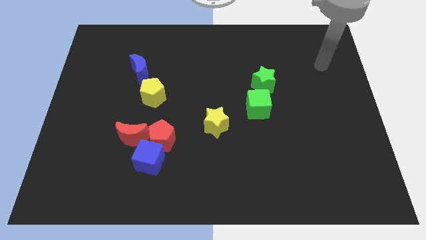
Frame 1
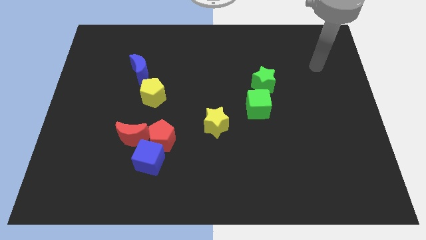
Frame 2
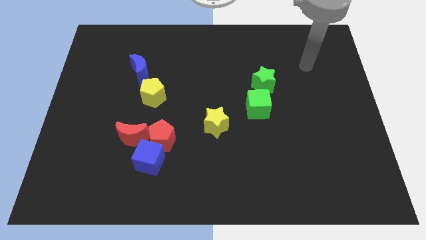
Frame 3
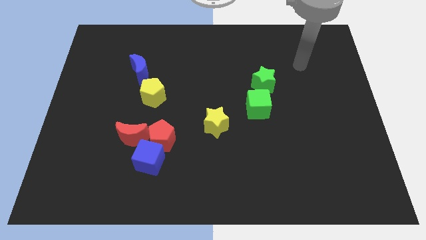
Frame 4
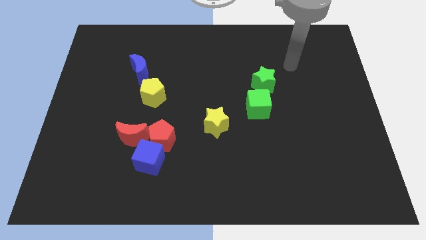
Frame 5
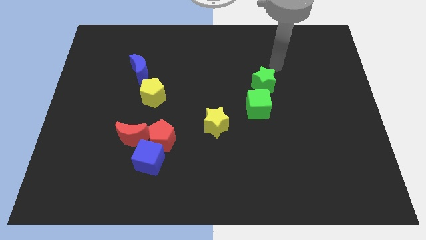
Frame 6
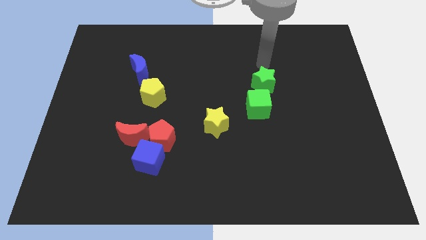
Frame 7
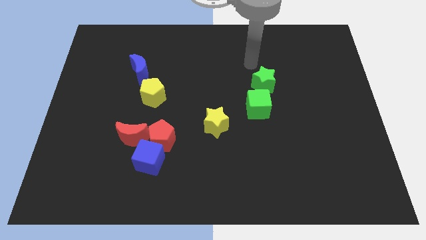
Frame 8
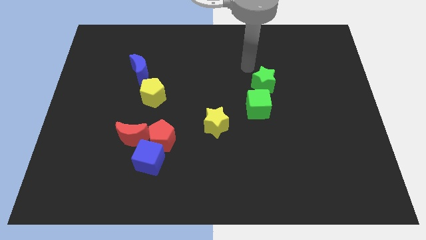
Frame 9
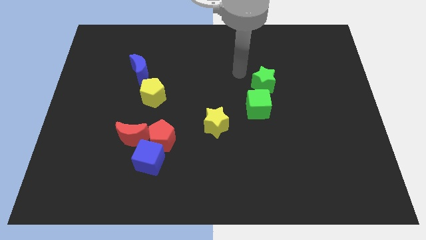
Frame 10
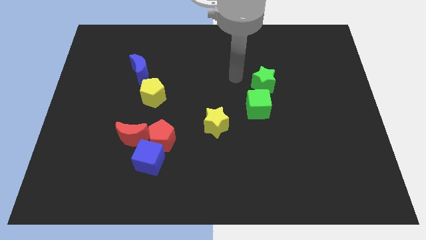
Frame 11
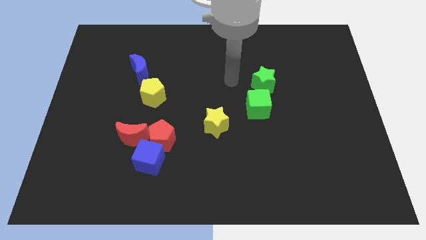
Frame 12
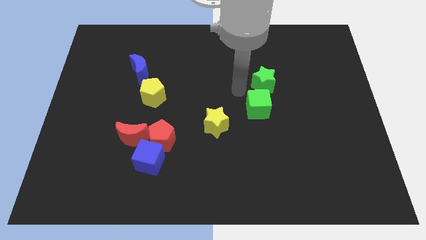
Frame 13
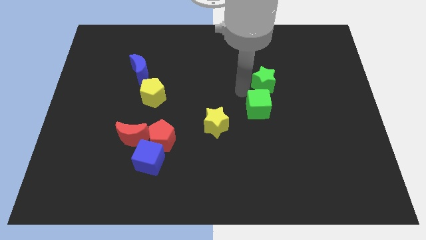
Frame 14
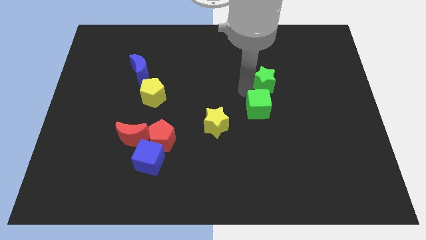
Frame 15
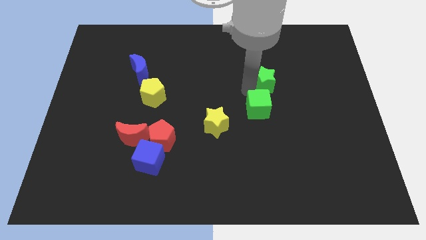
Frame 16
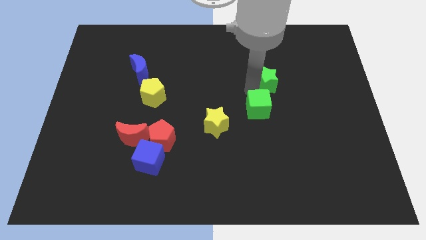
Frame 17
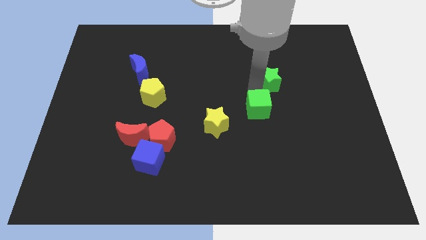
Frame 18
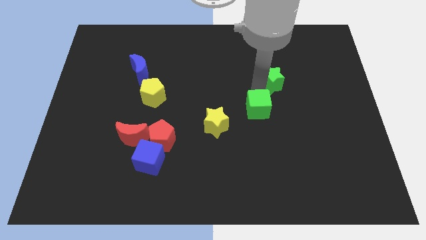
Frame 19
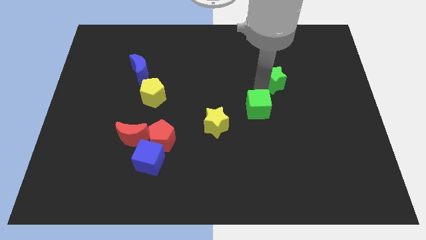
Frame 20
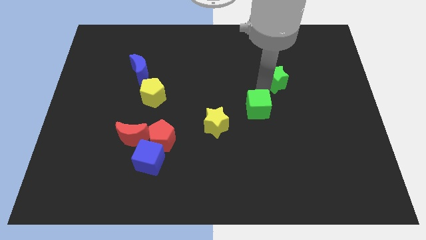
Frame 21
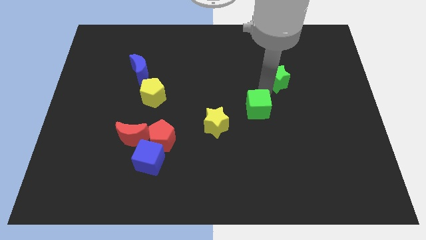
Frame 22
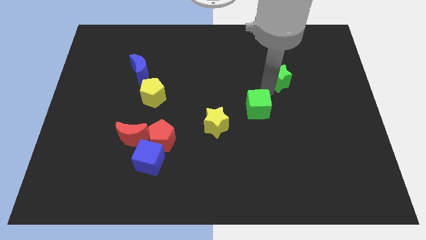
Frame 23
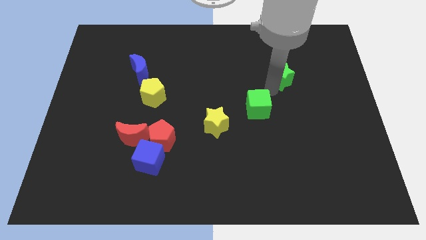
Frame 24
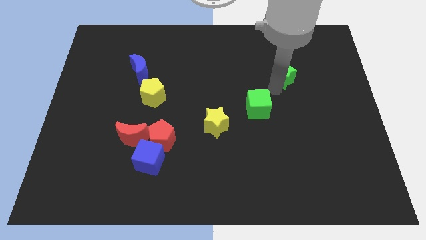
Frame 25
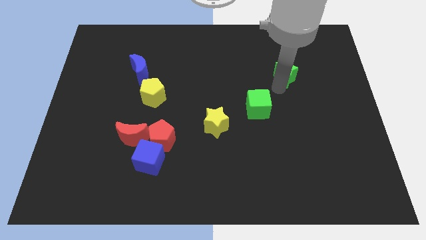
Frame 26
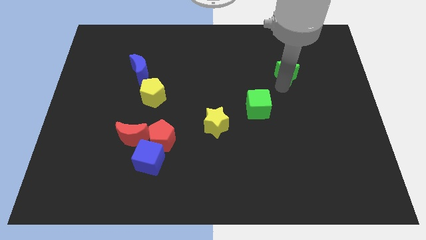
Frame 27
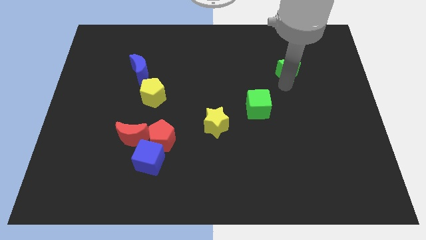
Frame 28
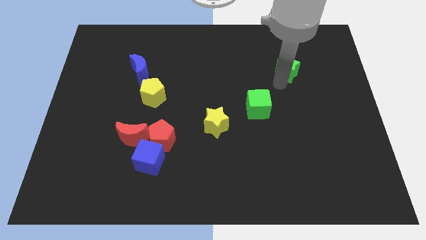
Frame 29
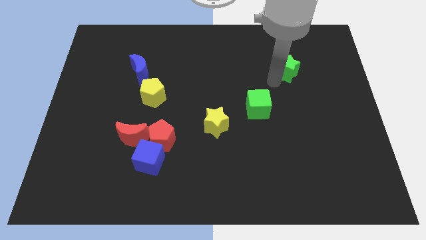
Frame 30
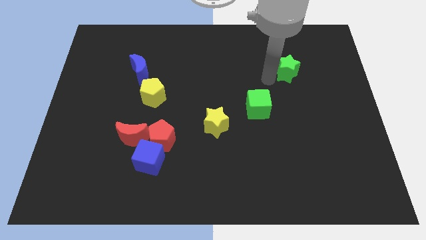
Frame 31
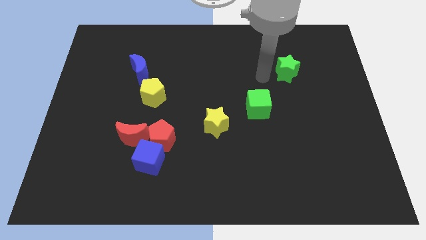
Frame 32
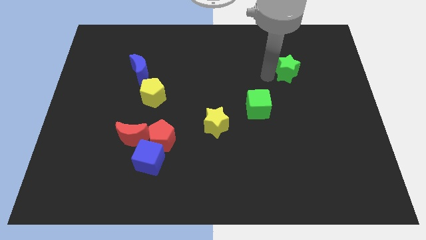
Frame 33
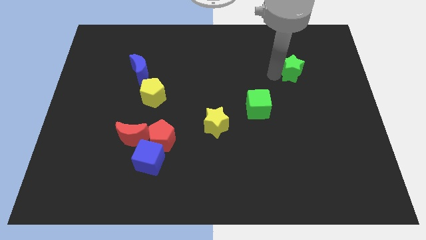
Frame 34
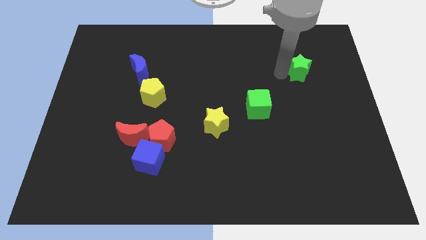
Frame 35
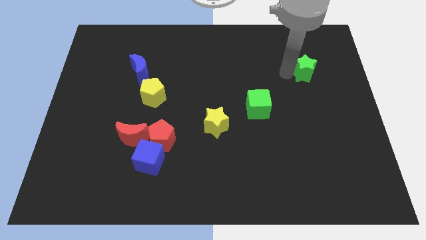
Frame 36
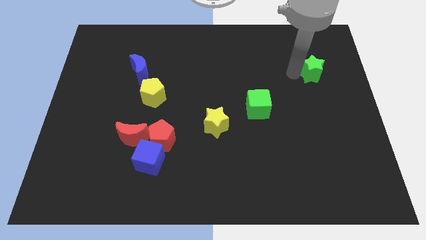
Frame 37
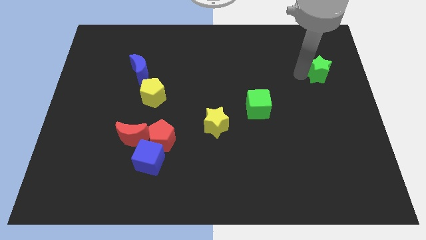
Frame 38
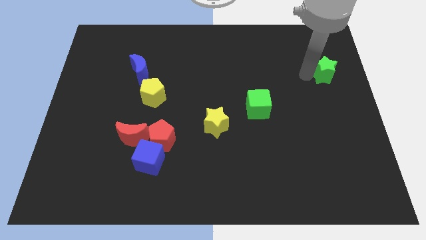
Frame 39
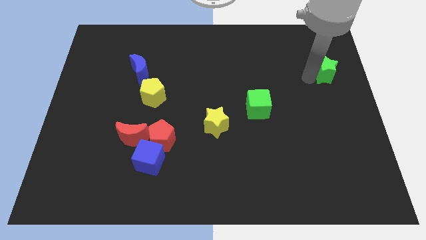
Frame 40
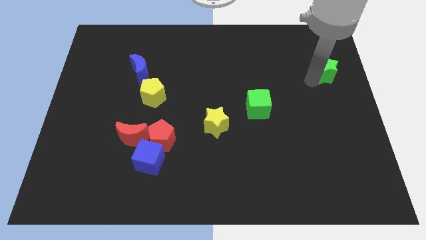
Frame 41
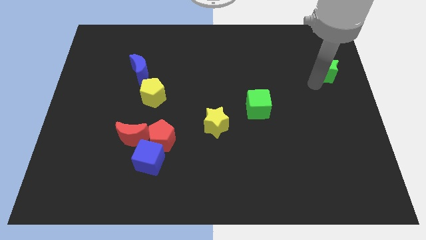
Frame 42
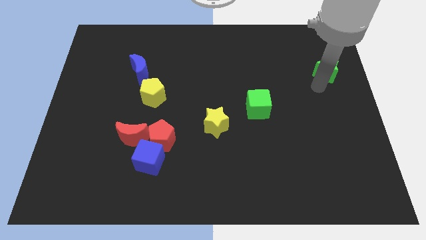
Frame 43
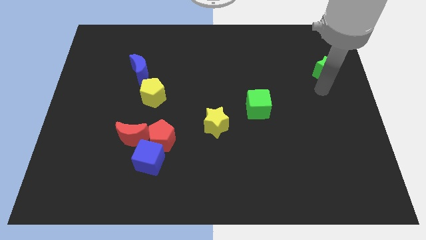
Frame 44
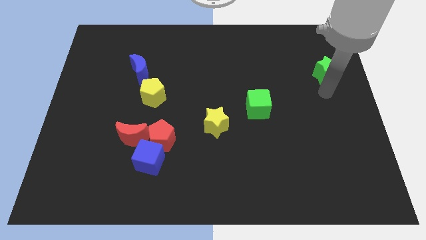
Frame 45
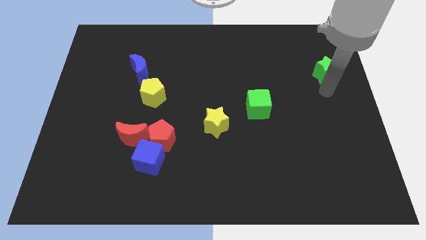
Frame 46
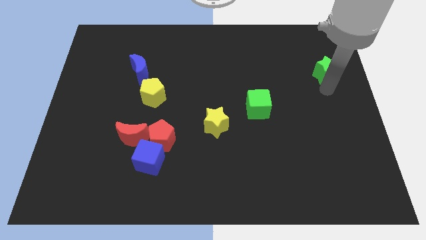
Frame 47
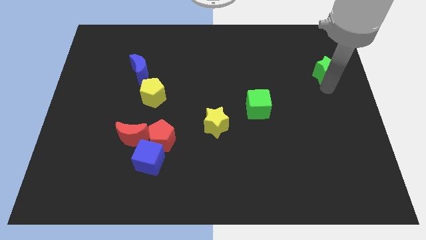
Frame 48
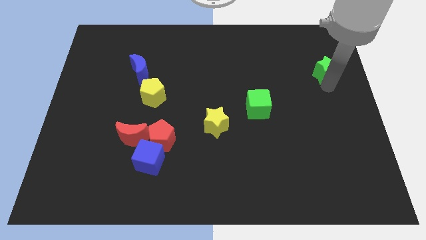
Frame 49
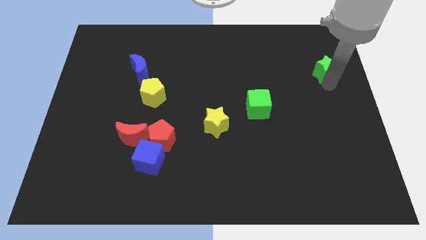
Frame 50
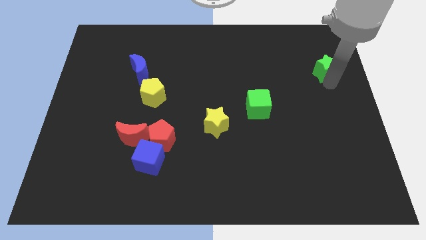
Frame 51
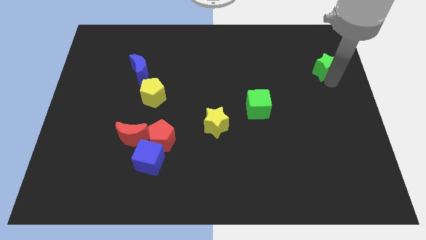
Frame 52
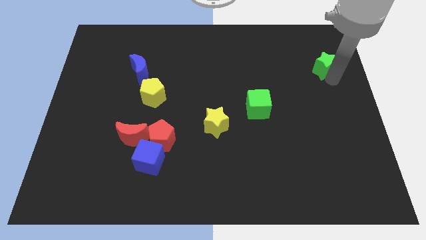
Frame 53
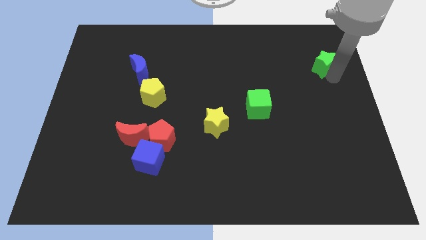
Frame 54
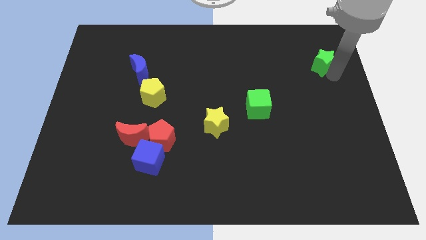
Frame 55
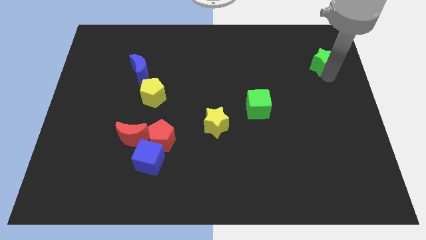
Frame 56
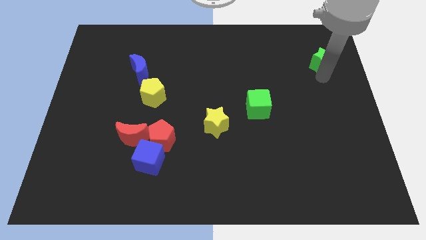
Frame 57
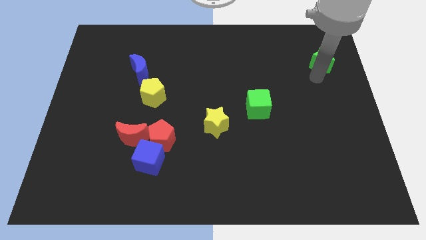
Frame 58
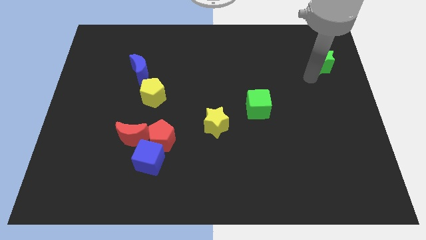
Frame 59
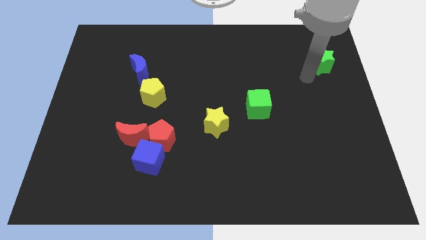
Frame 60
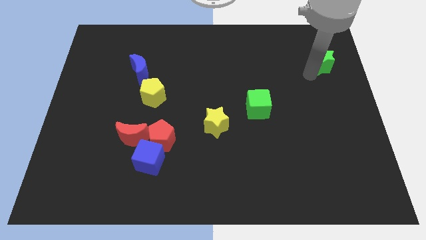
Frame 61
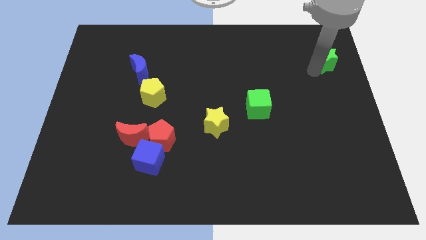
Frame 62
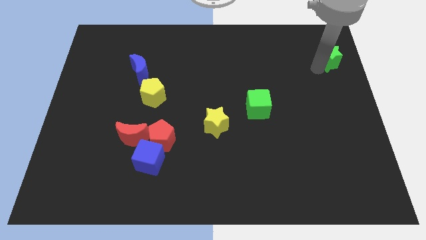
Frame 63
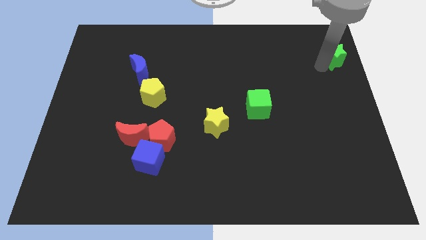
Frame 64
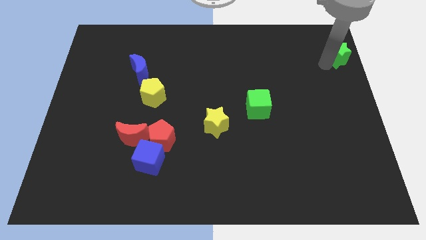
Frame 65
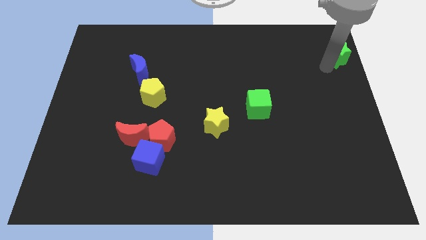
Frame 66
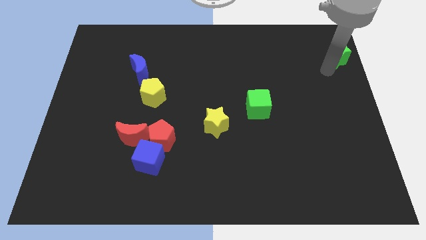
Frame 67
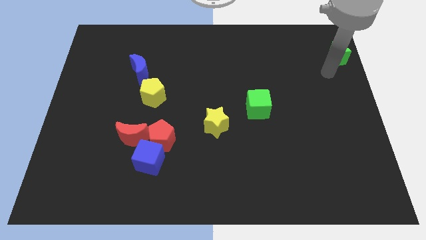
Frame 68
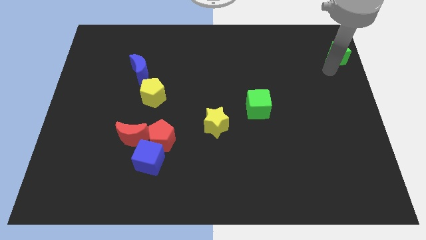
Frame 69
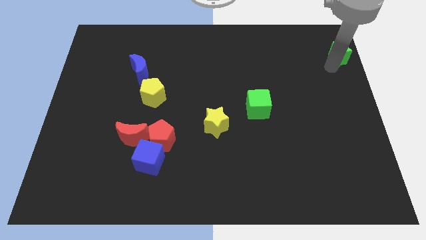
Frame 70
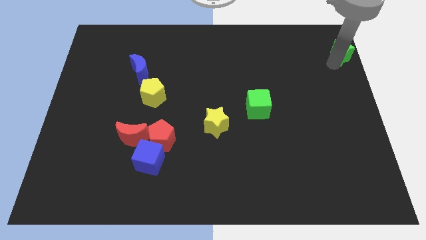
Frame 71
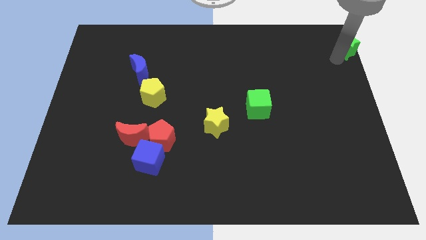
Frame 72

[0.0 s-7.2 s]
put the green star to the top right corner
